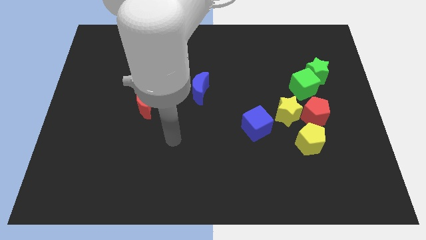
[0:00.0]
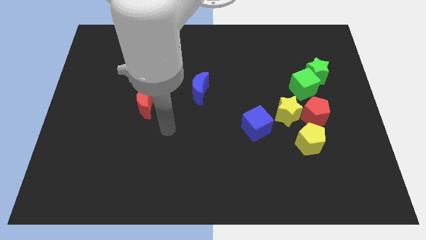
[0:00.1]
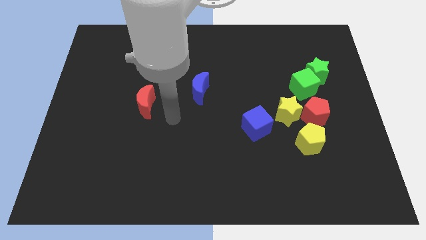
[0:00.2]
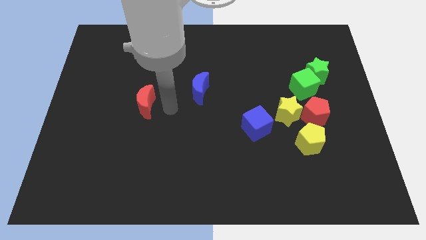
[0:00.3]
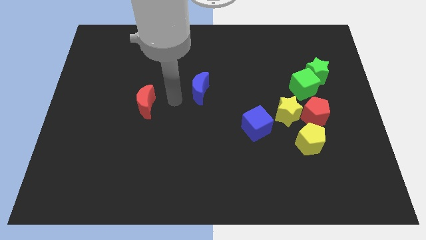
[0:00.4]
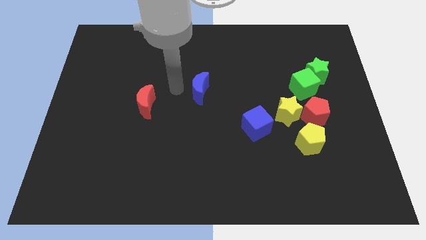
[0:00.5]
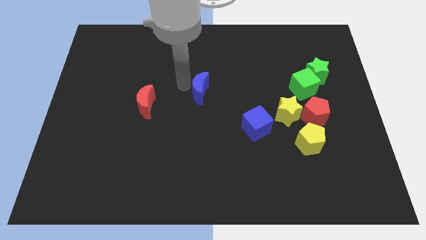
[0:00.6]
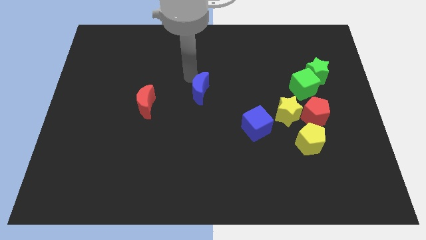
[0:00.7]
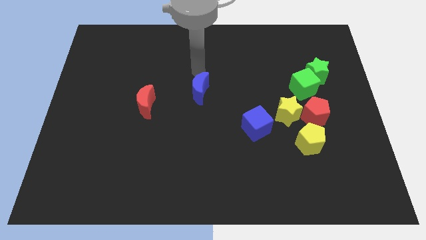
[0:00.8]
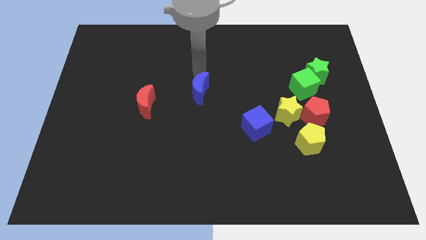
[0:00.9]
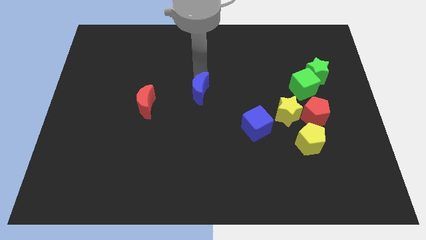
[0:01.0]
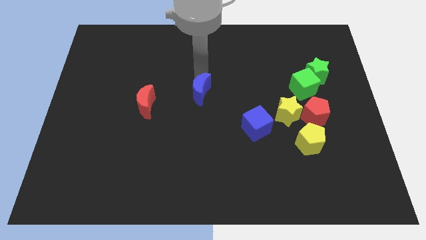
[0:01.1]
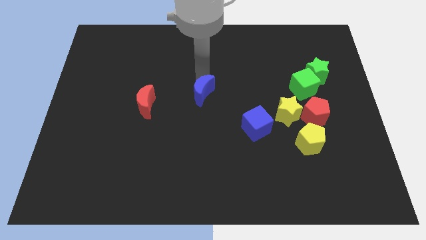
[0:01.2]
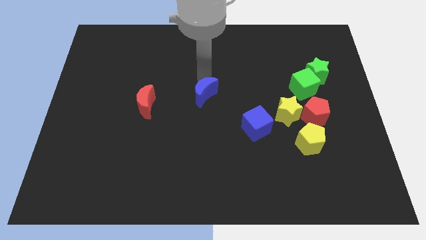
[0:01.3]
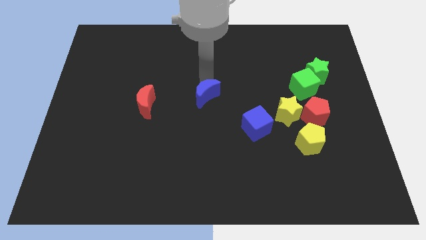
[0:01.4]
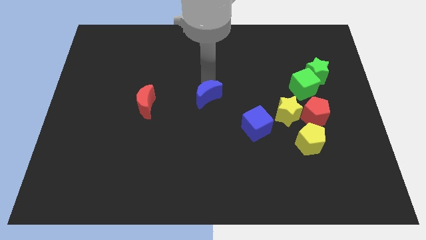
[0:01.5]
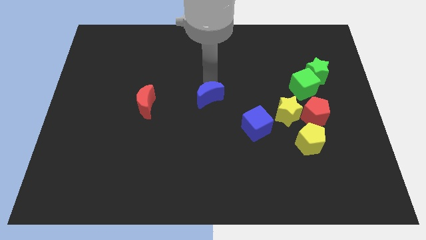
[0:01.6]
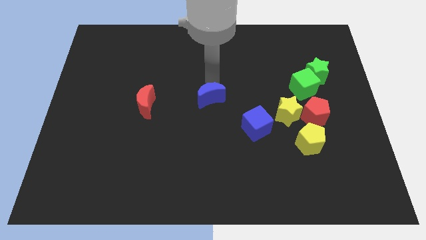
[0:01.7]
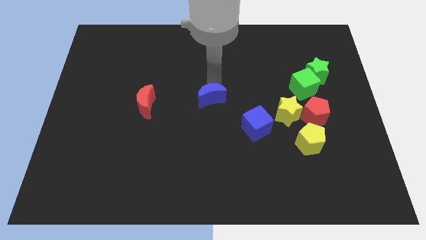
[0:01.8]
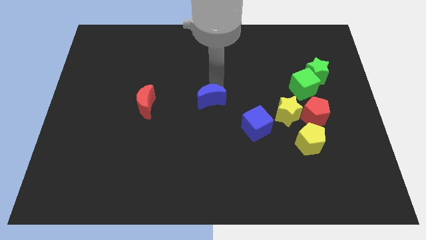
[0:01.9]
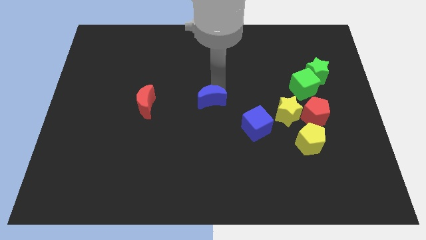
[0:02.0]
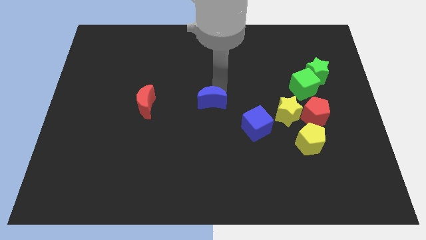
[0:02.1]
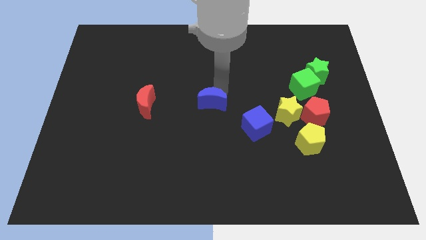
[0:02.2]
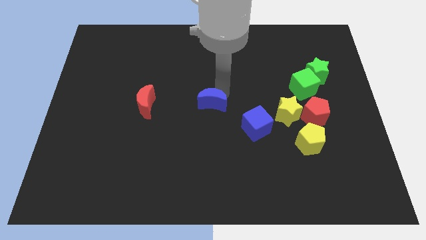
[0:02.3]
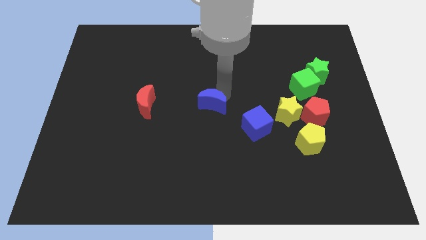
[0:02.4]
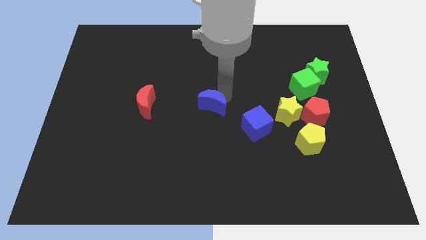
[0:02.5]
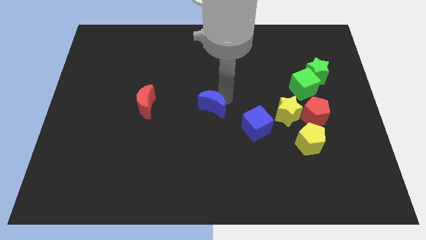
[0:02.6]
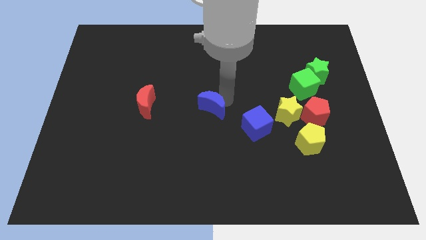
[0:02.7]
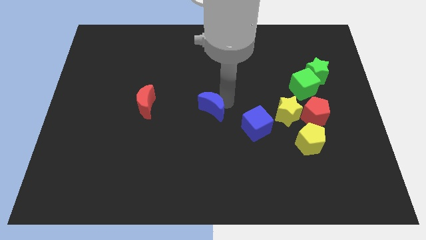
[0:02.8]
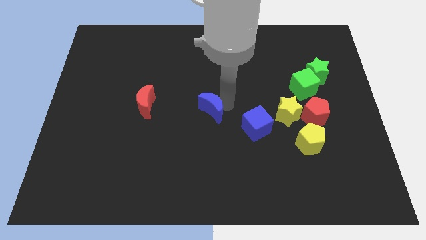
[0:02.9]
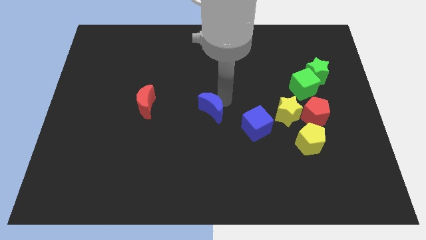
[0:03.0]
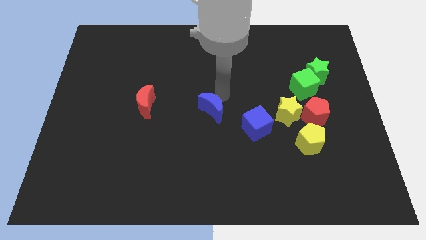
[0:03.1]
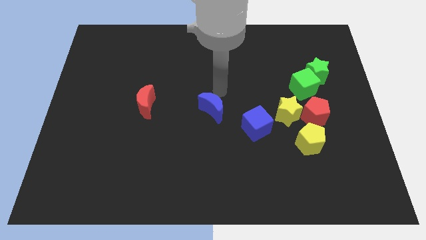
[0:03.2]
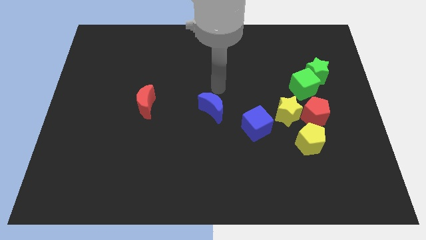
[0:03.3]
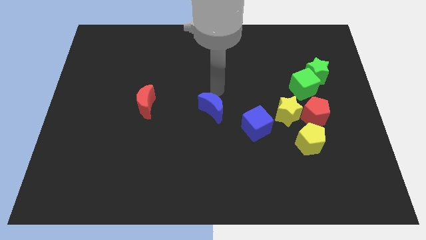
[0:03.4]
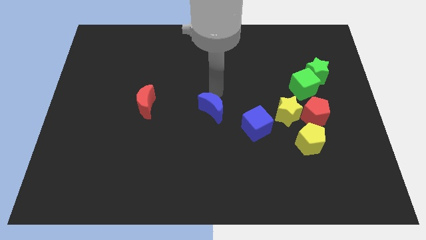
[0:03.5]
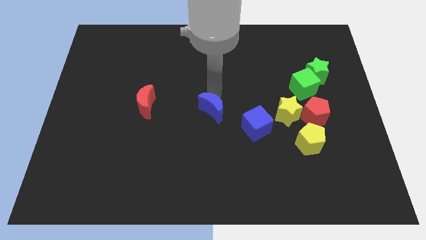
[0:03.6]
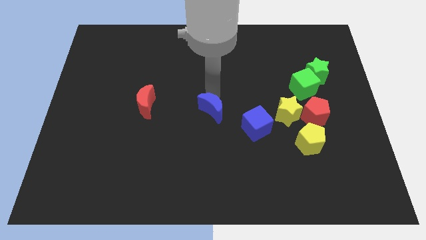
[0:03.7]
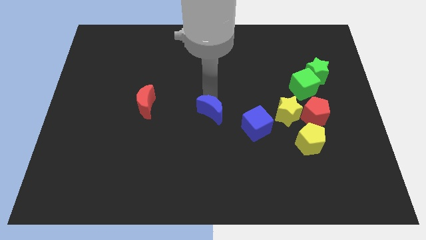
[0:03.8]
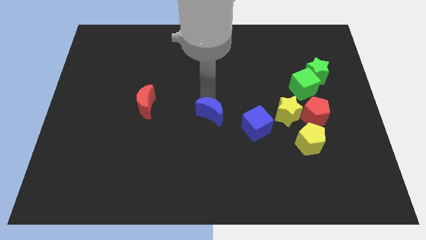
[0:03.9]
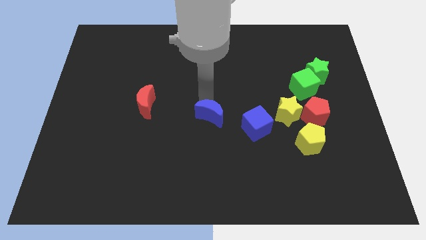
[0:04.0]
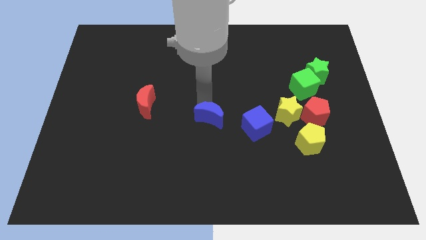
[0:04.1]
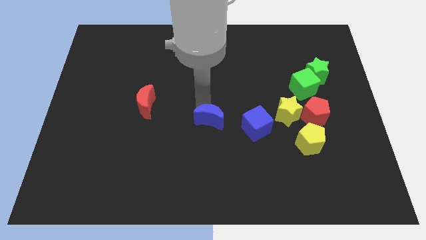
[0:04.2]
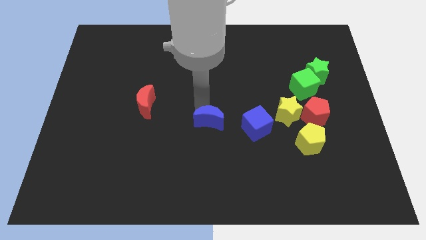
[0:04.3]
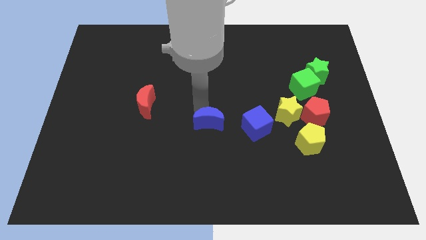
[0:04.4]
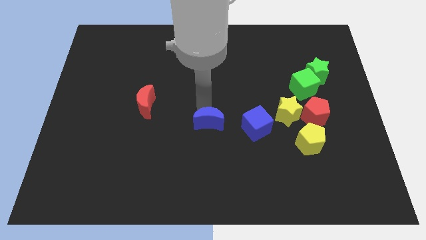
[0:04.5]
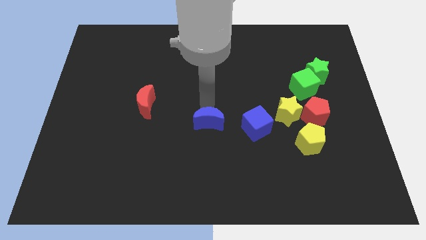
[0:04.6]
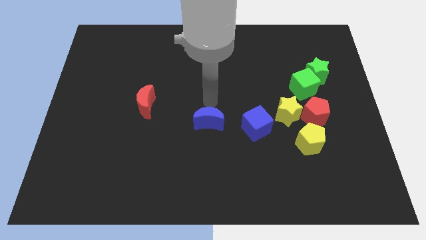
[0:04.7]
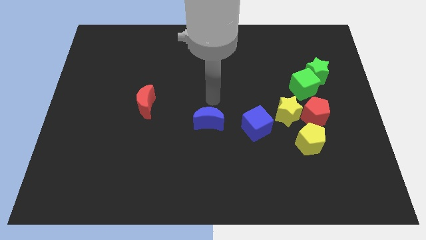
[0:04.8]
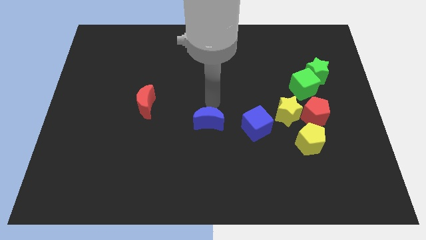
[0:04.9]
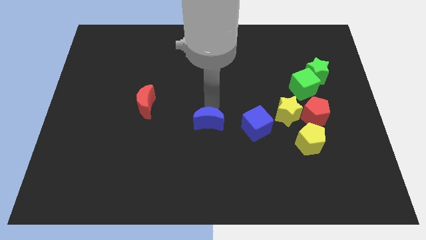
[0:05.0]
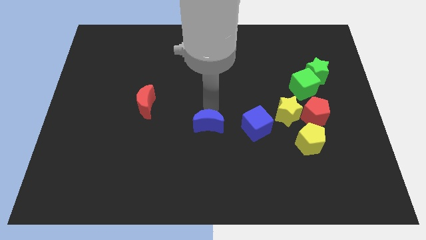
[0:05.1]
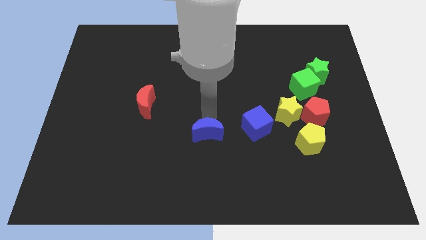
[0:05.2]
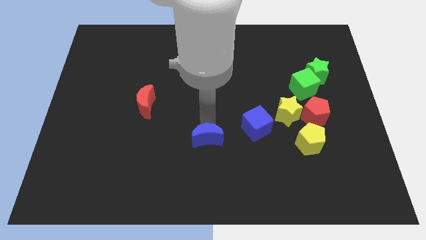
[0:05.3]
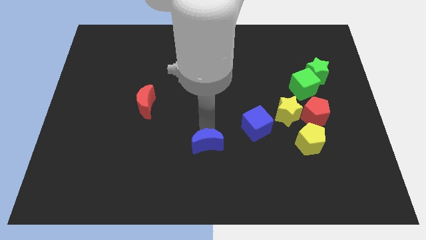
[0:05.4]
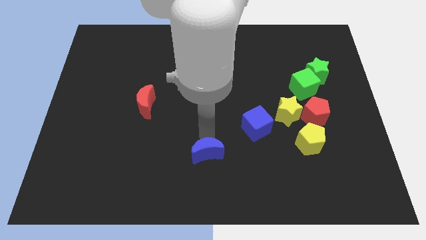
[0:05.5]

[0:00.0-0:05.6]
slide the blue moon to the bottom side
